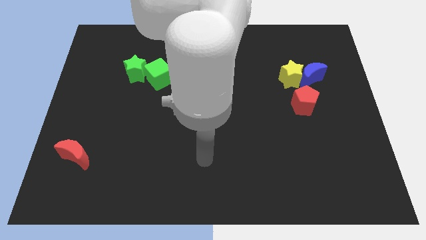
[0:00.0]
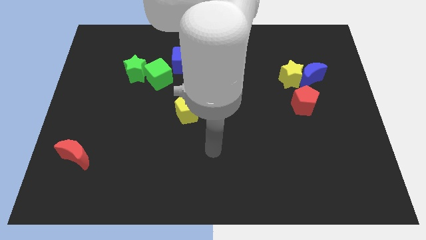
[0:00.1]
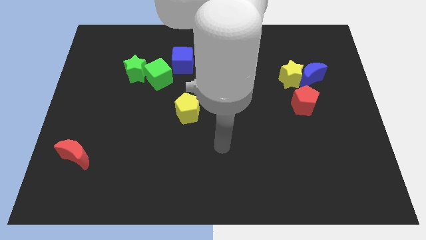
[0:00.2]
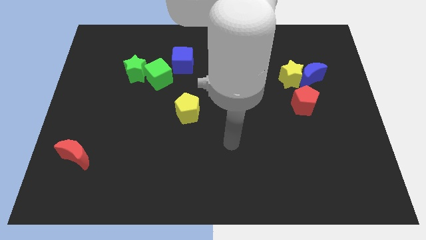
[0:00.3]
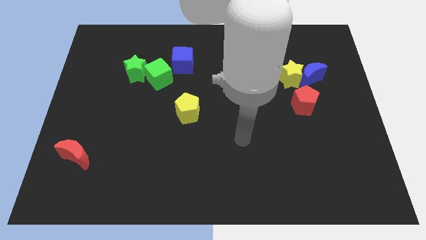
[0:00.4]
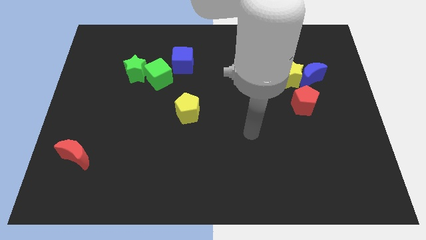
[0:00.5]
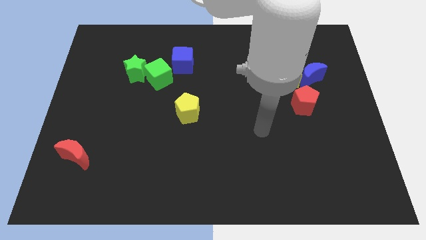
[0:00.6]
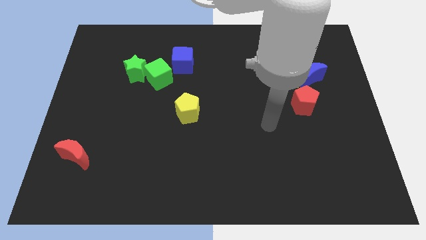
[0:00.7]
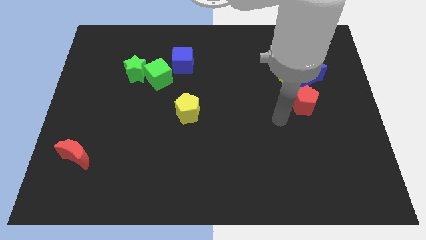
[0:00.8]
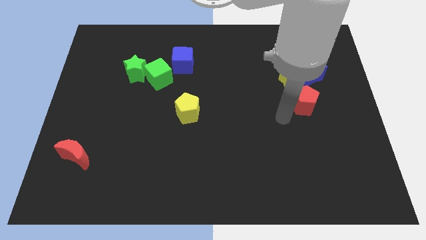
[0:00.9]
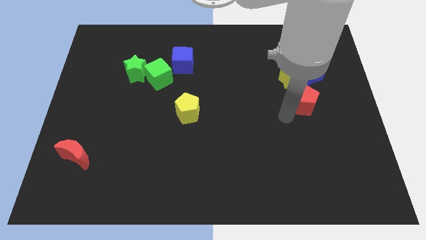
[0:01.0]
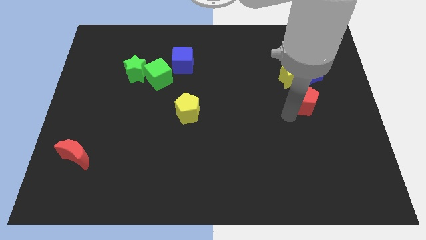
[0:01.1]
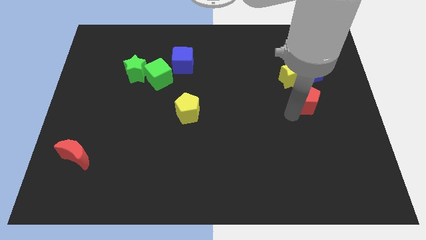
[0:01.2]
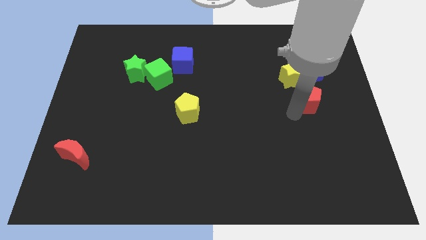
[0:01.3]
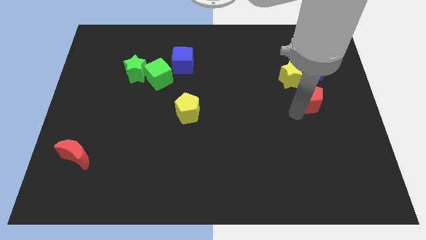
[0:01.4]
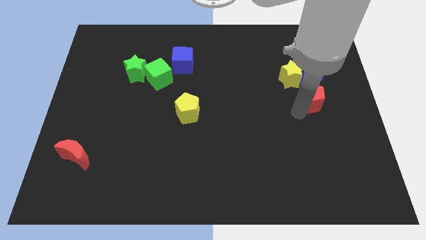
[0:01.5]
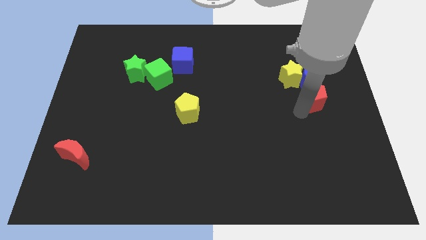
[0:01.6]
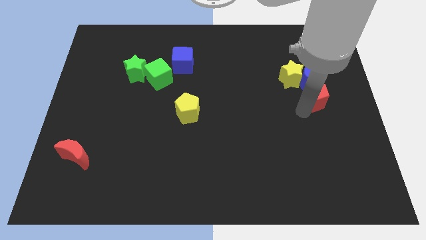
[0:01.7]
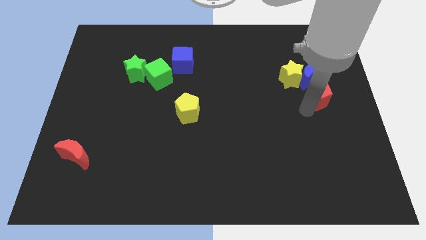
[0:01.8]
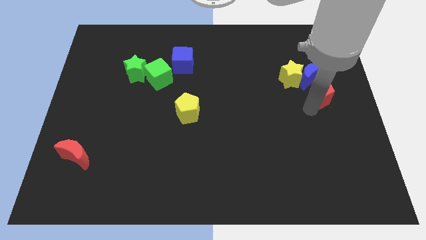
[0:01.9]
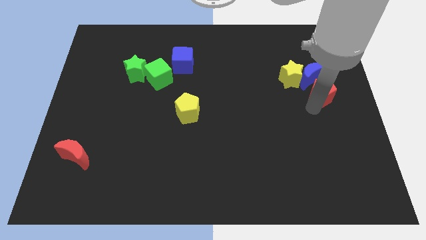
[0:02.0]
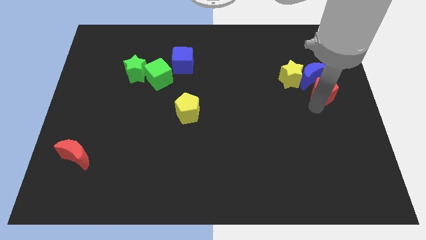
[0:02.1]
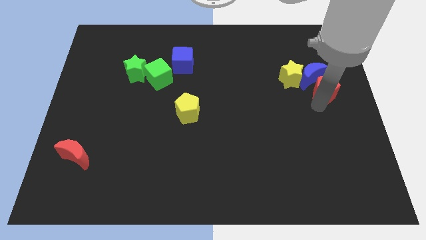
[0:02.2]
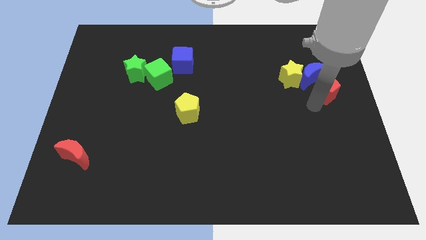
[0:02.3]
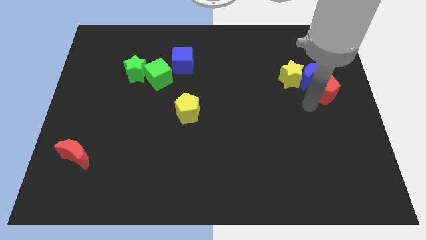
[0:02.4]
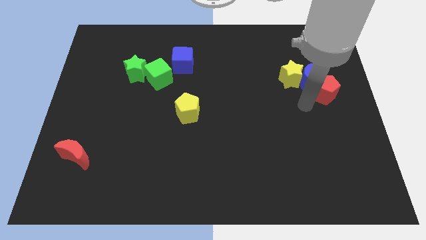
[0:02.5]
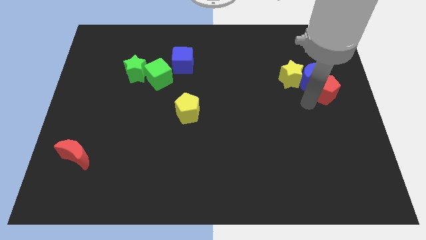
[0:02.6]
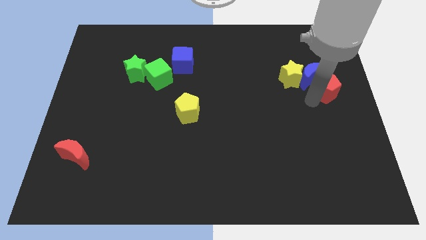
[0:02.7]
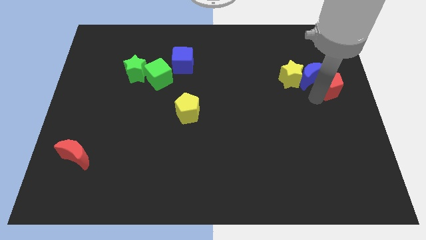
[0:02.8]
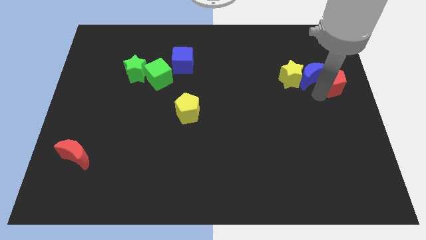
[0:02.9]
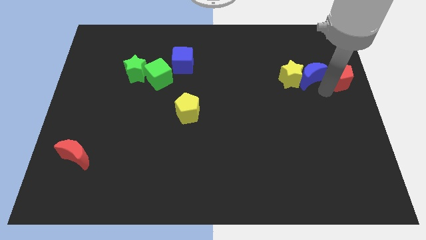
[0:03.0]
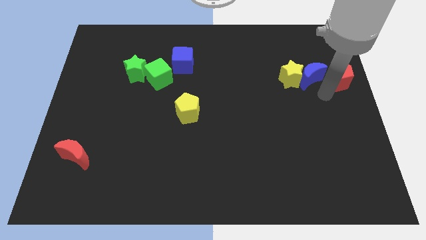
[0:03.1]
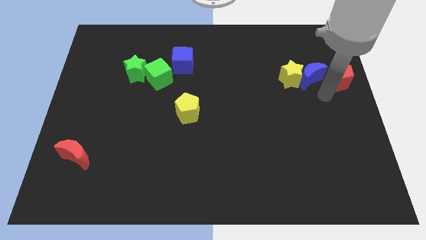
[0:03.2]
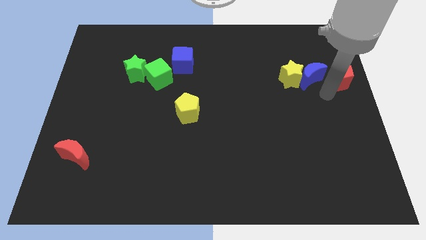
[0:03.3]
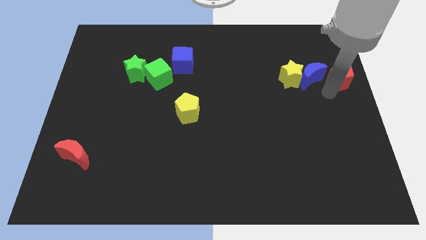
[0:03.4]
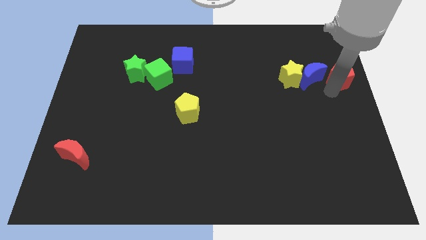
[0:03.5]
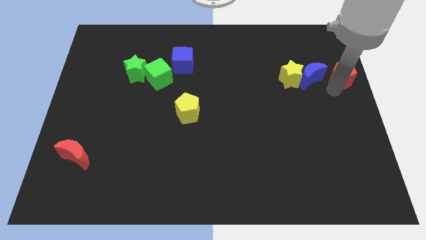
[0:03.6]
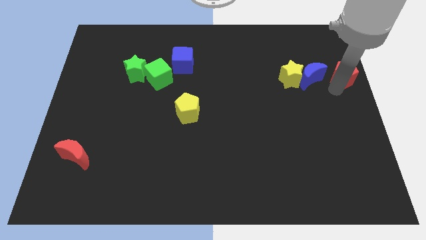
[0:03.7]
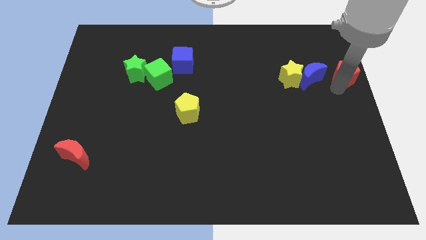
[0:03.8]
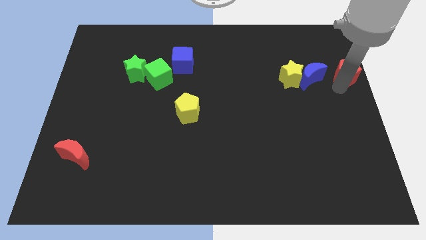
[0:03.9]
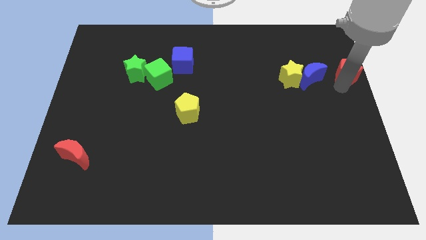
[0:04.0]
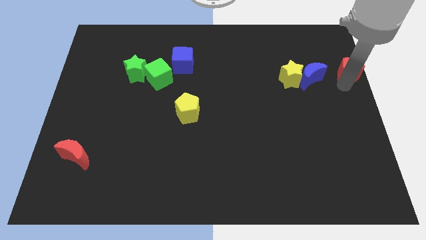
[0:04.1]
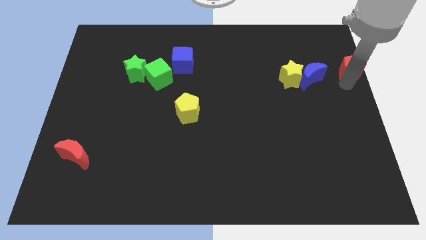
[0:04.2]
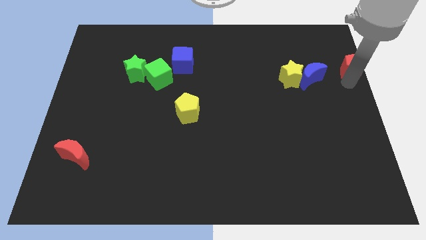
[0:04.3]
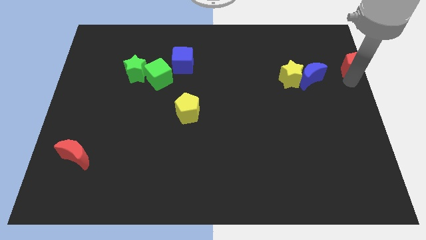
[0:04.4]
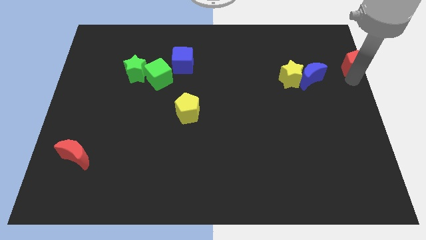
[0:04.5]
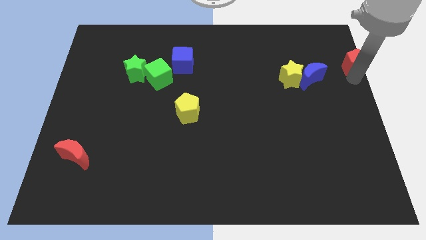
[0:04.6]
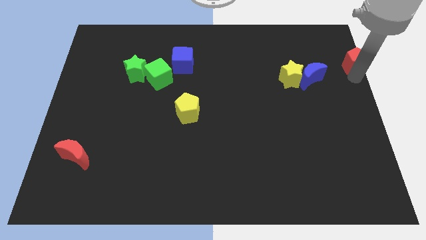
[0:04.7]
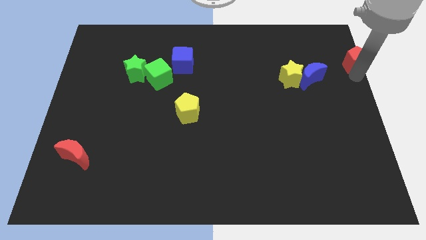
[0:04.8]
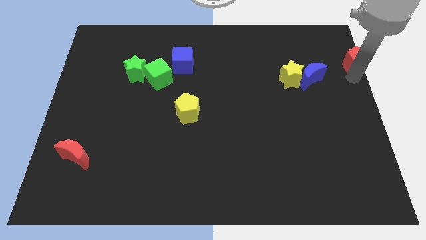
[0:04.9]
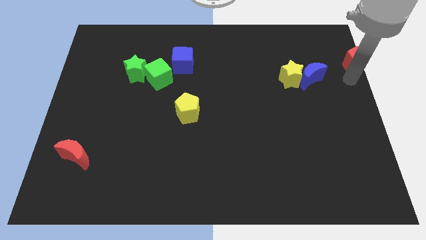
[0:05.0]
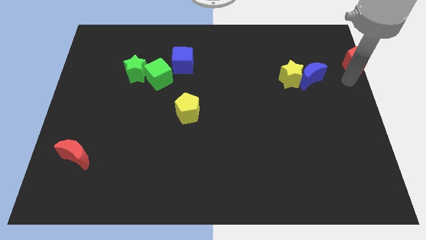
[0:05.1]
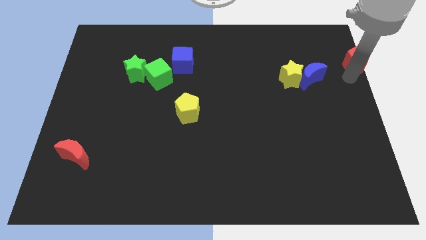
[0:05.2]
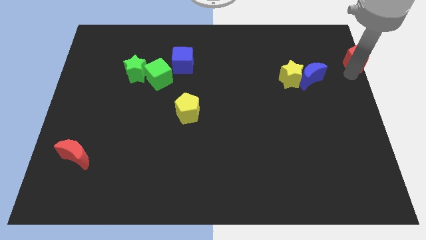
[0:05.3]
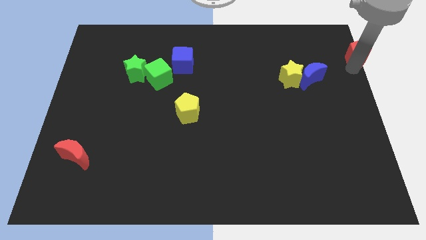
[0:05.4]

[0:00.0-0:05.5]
push the red pentagon to the top right

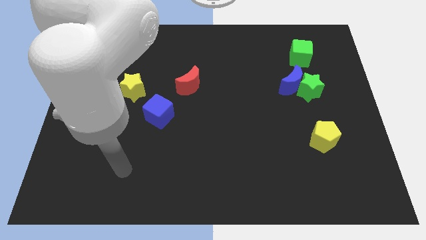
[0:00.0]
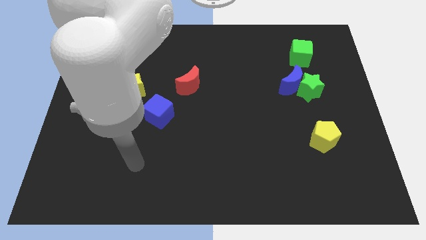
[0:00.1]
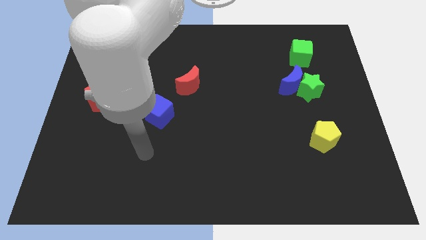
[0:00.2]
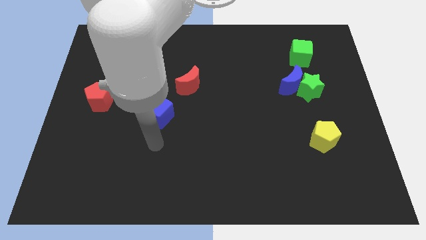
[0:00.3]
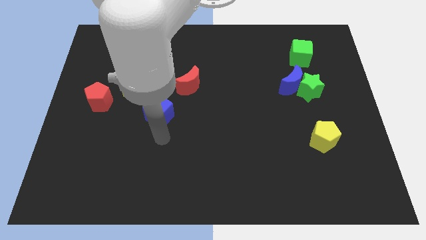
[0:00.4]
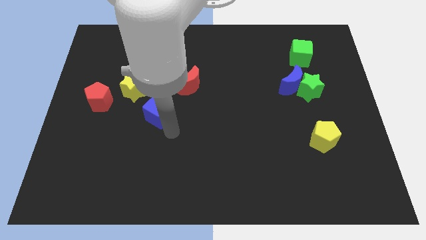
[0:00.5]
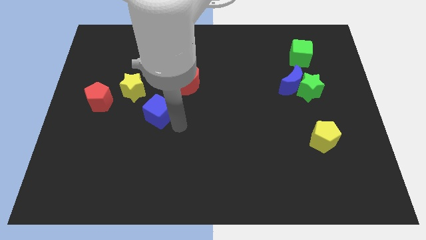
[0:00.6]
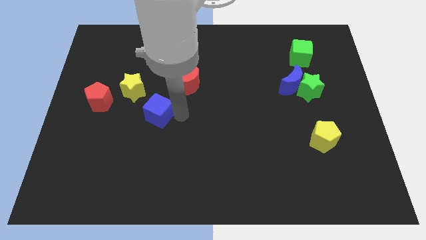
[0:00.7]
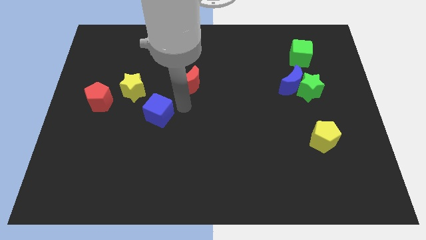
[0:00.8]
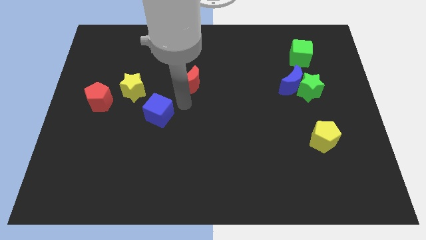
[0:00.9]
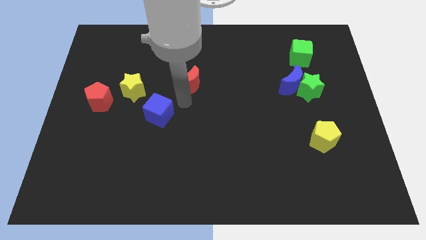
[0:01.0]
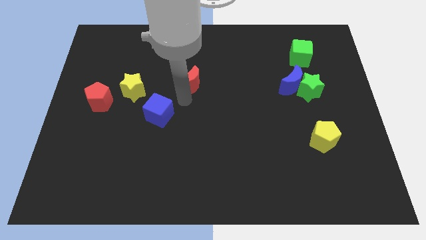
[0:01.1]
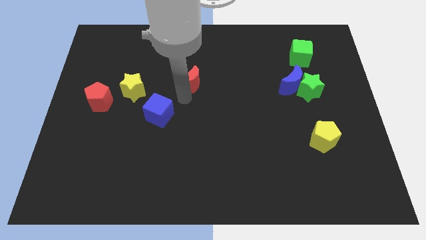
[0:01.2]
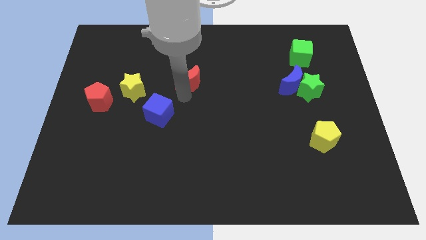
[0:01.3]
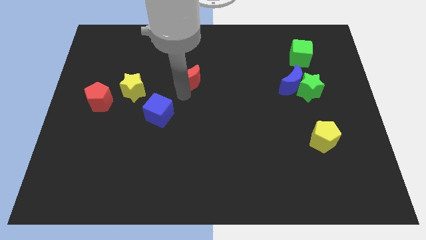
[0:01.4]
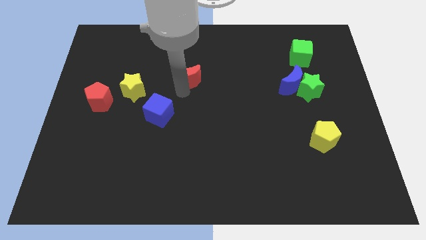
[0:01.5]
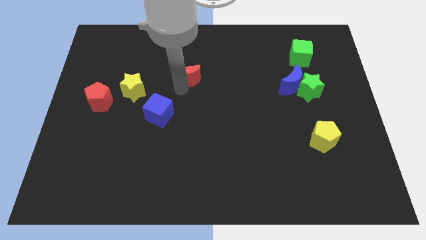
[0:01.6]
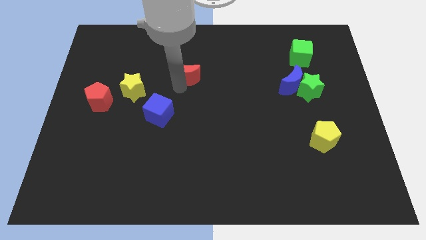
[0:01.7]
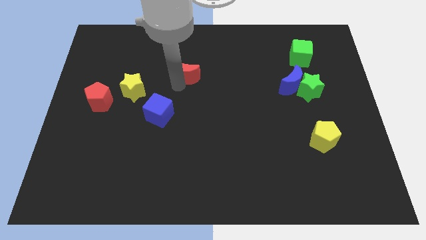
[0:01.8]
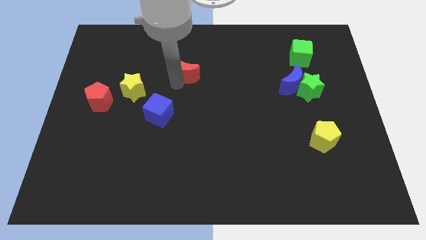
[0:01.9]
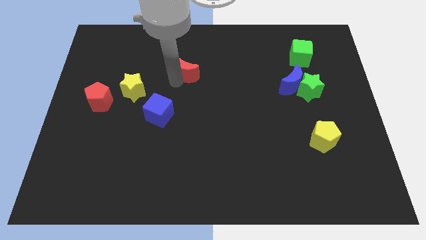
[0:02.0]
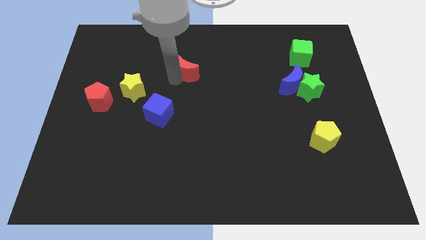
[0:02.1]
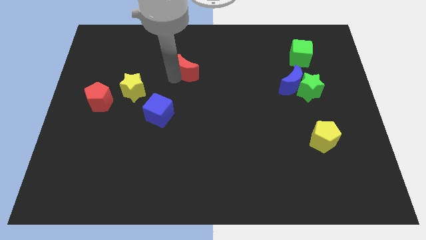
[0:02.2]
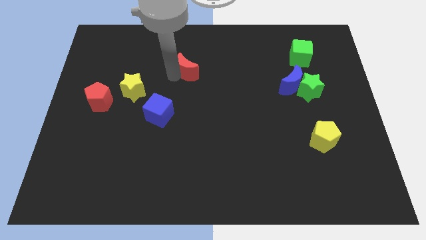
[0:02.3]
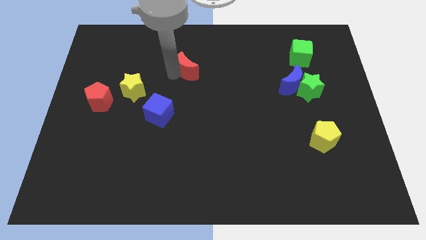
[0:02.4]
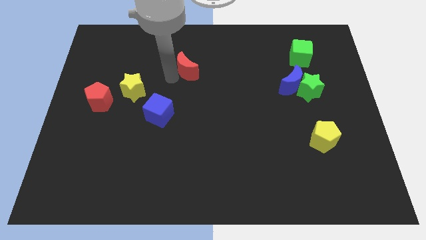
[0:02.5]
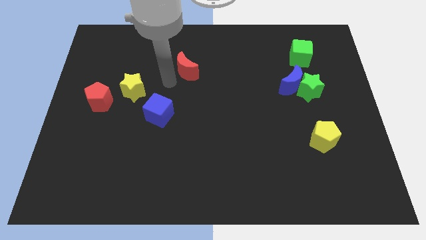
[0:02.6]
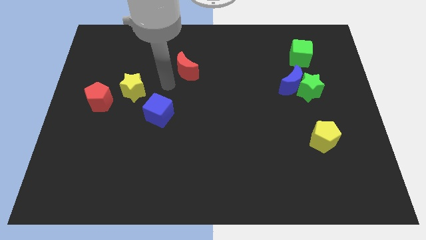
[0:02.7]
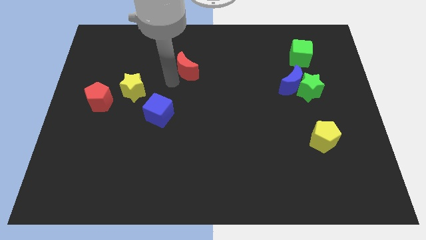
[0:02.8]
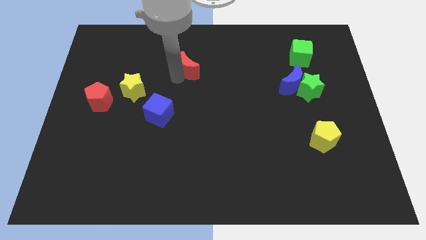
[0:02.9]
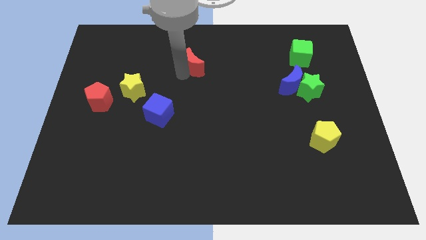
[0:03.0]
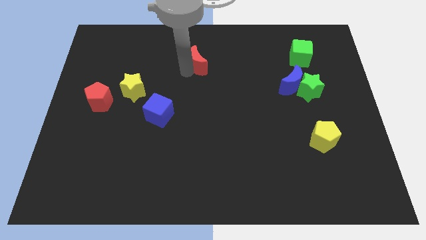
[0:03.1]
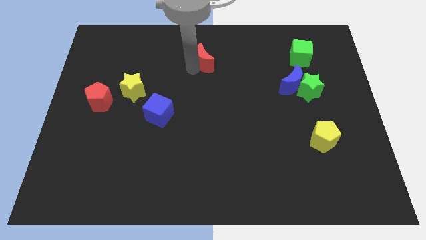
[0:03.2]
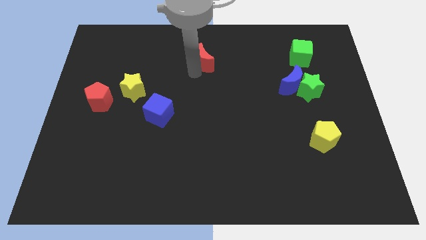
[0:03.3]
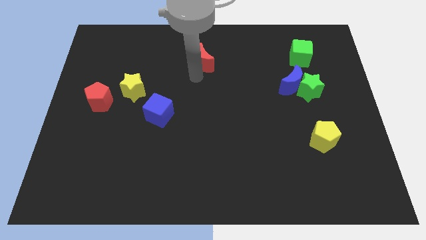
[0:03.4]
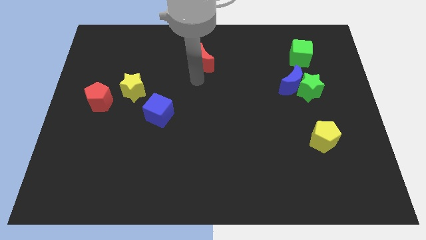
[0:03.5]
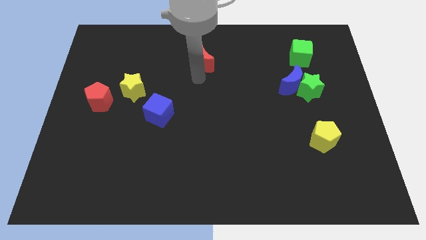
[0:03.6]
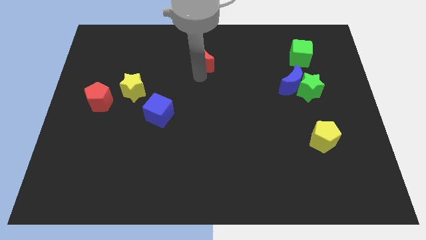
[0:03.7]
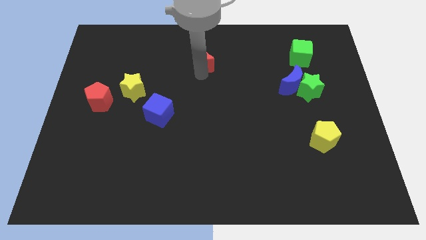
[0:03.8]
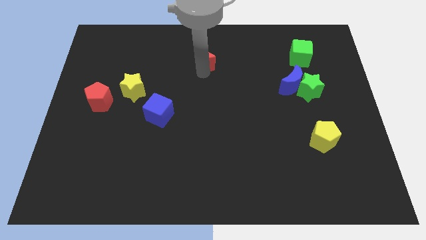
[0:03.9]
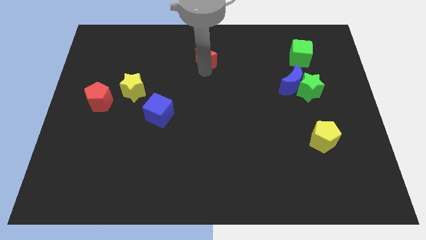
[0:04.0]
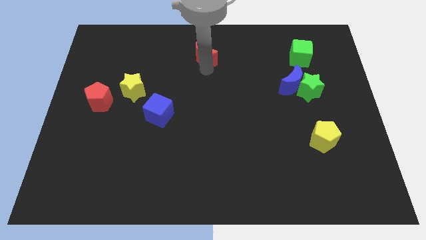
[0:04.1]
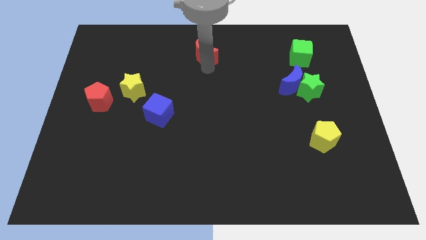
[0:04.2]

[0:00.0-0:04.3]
slide the red moon to the top side
